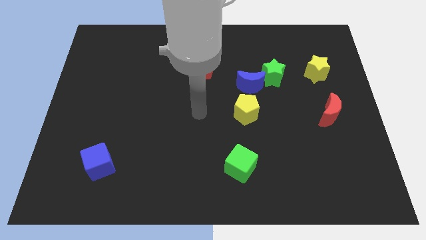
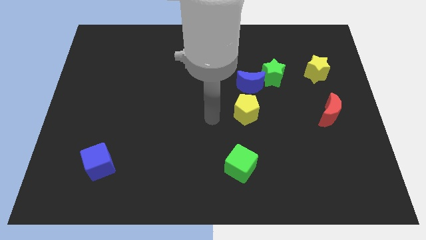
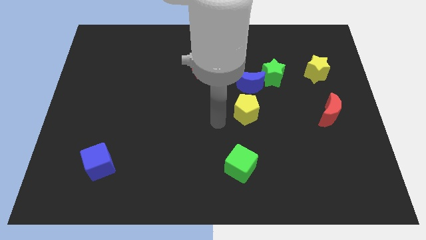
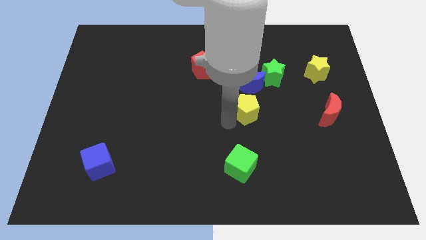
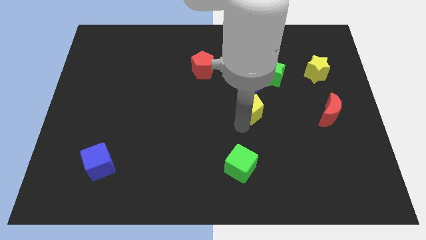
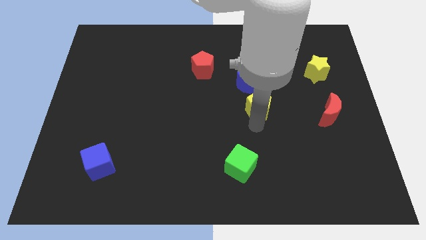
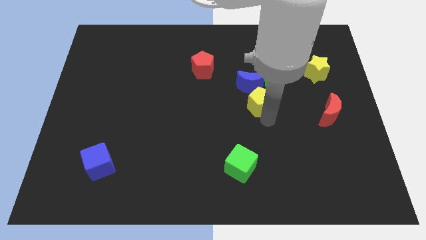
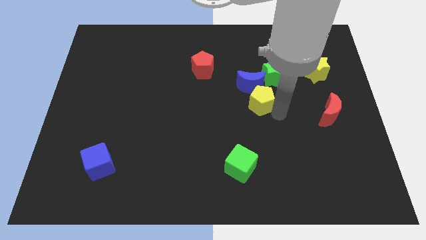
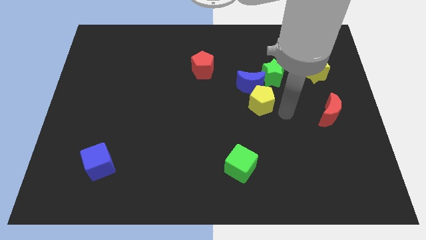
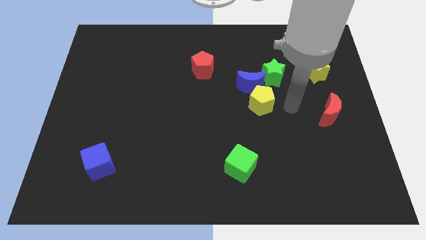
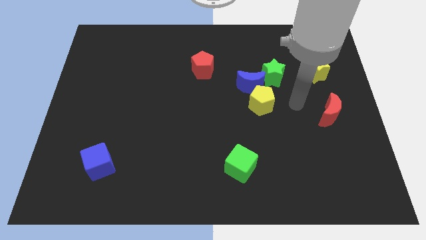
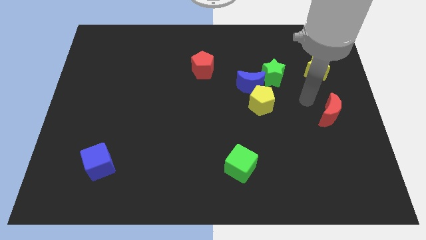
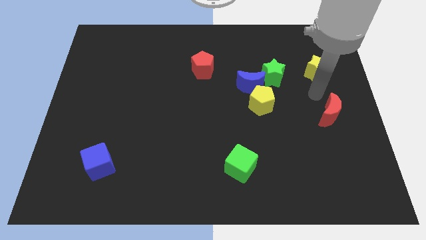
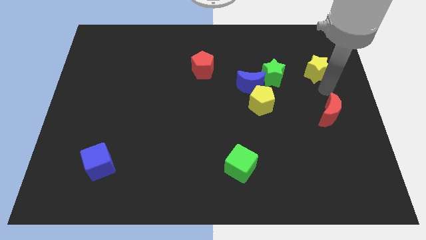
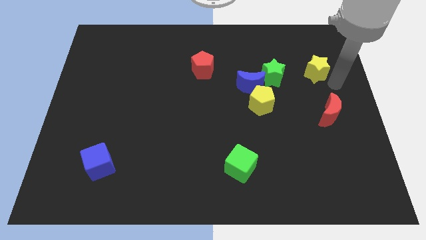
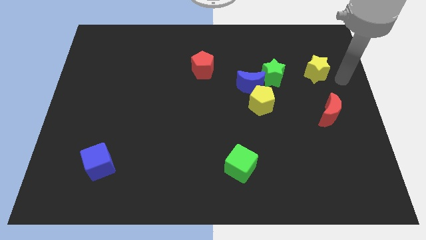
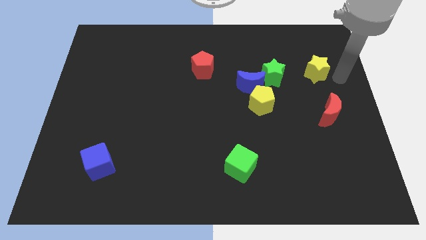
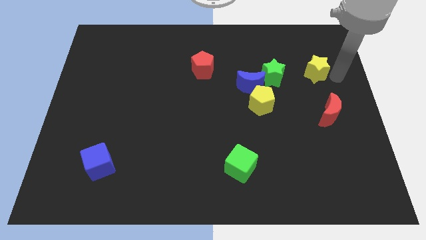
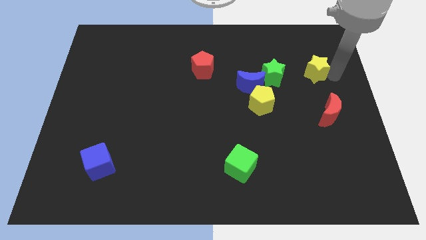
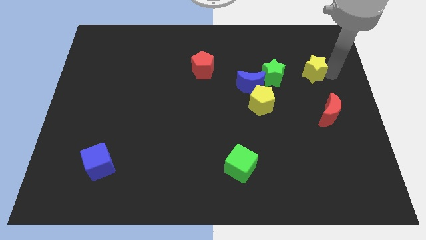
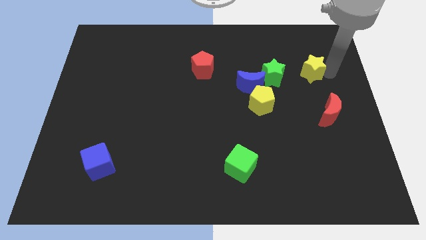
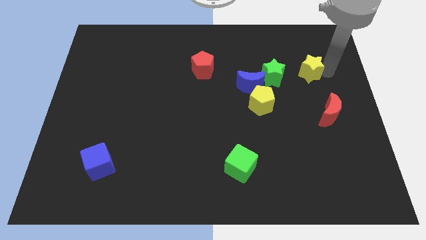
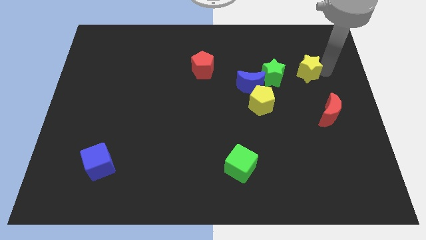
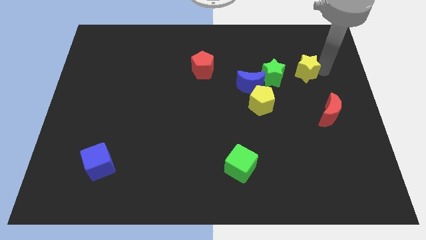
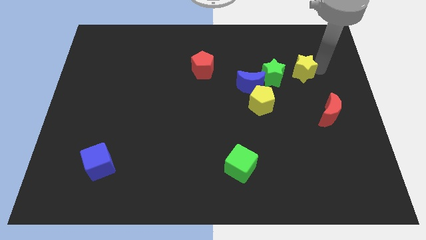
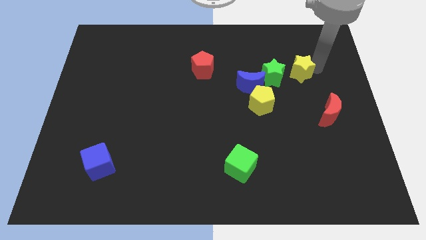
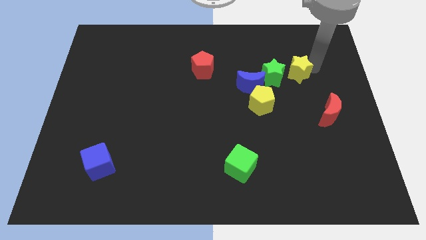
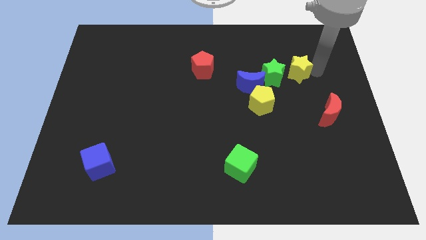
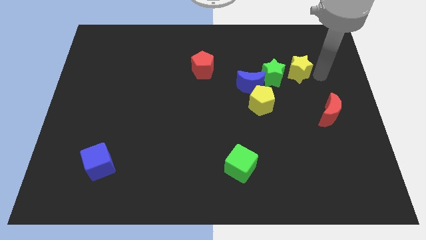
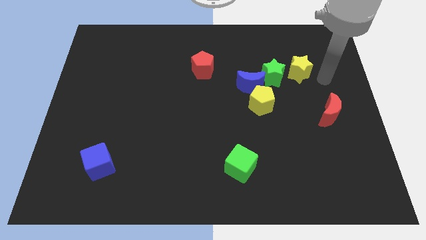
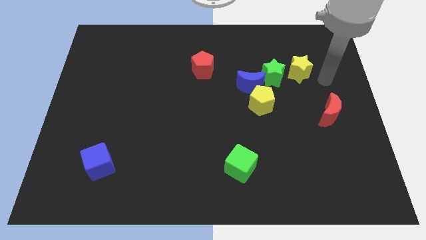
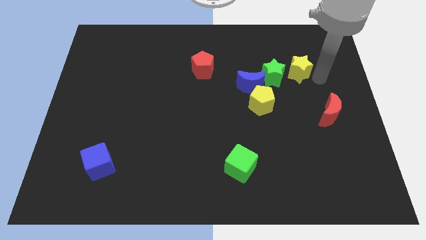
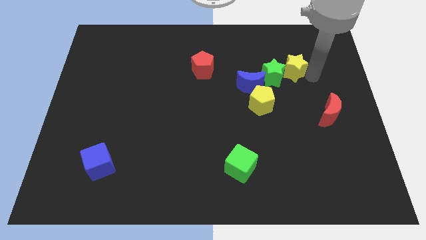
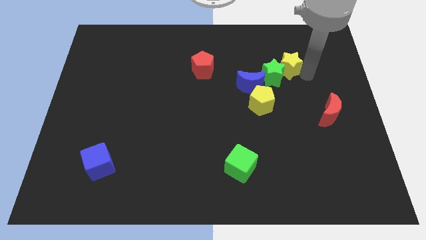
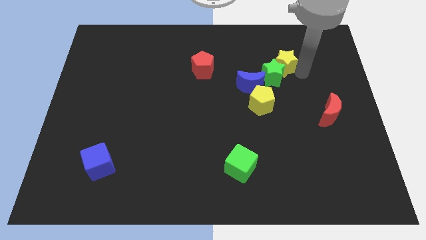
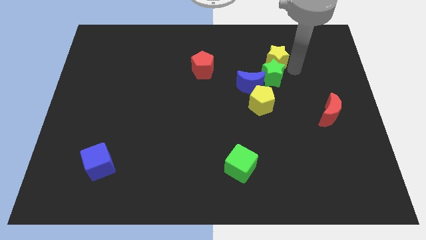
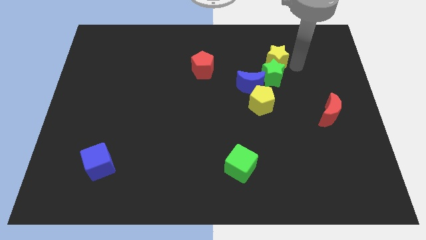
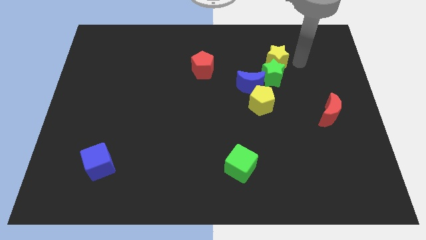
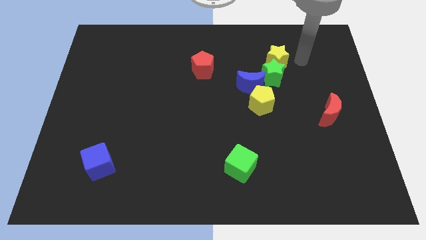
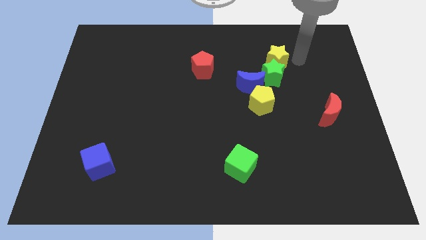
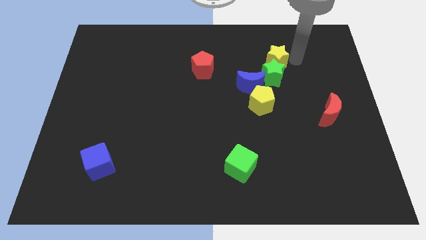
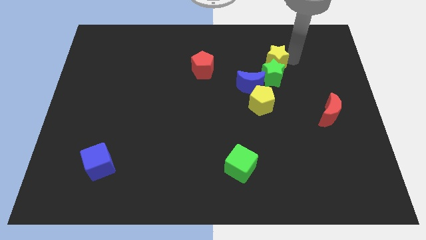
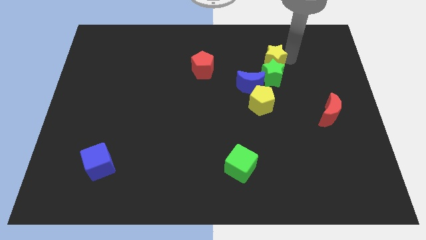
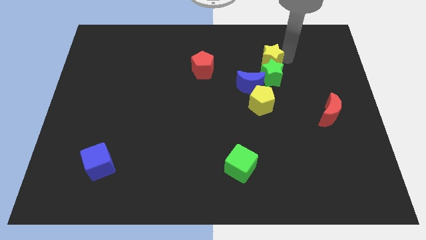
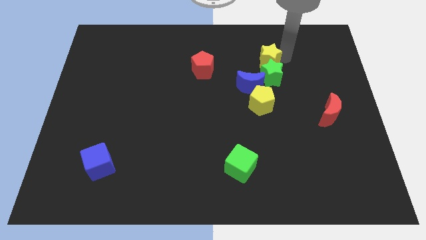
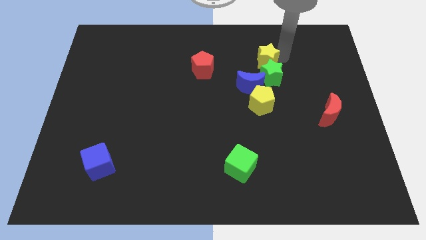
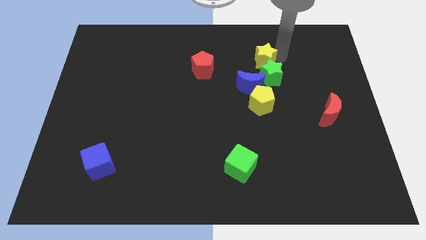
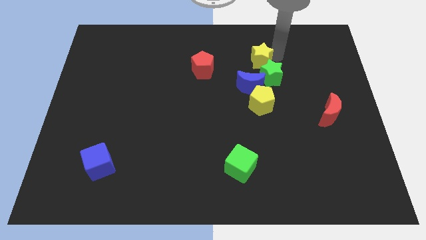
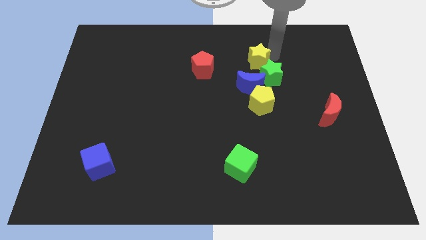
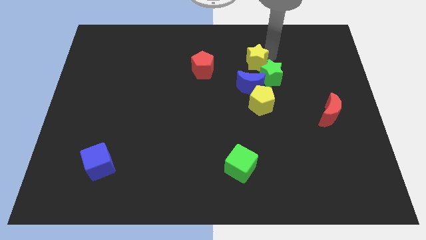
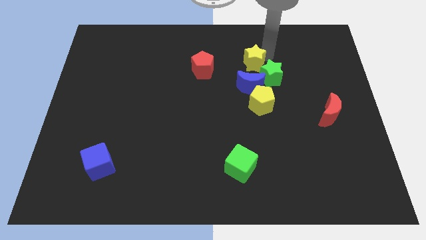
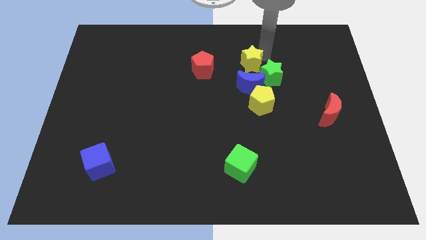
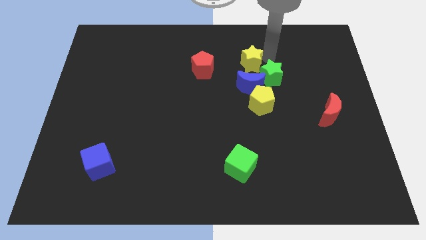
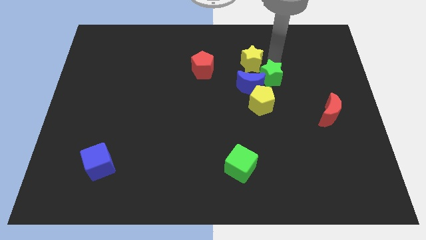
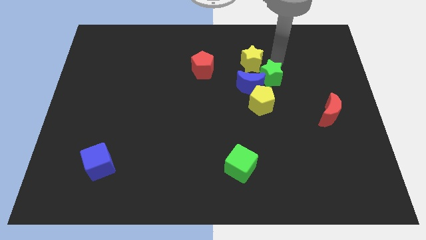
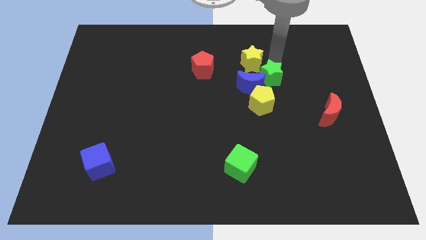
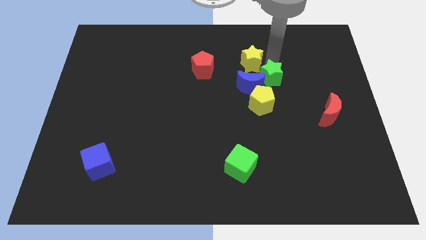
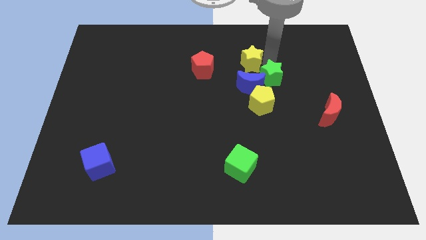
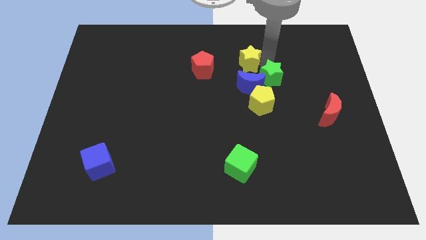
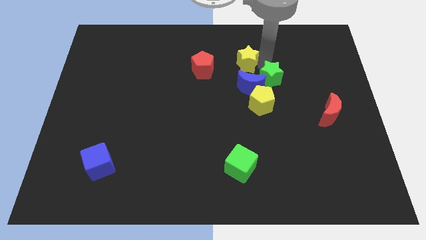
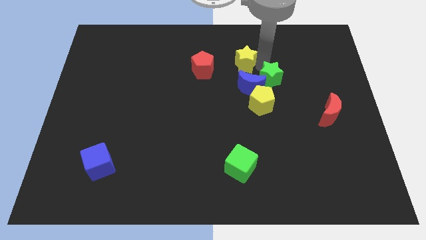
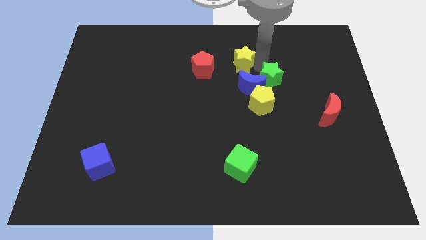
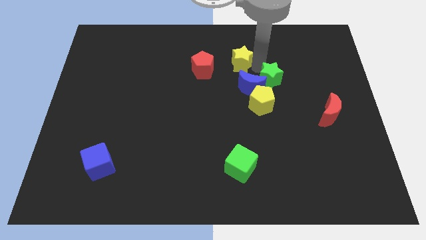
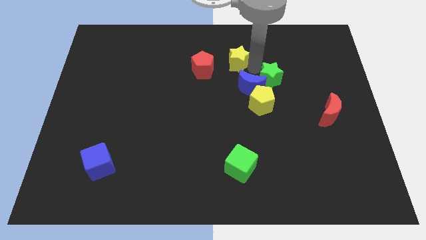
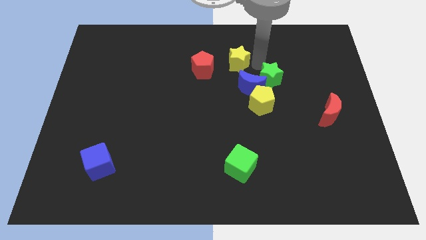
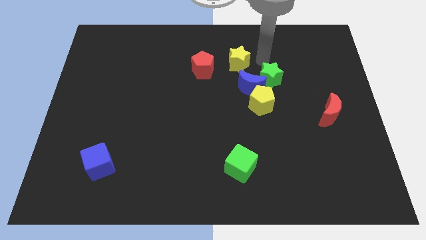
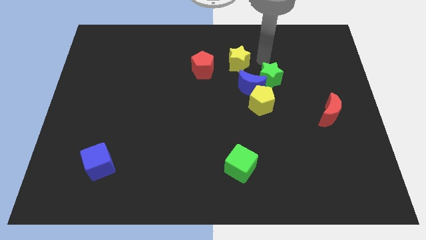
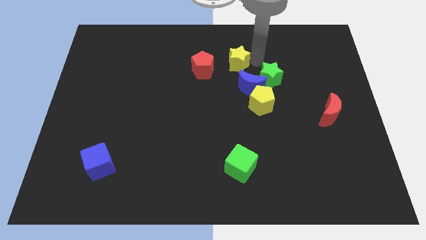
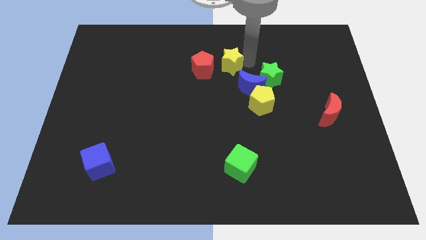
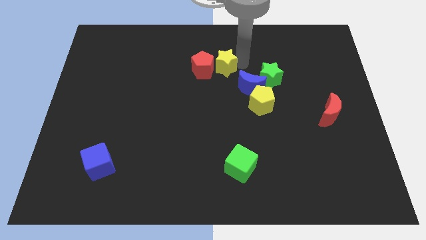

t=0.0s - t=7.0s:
put the yellow star close to the red pentagon

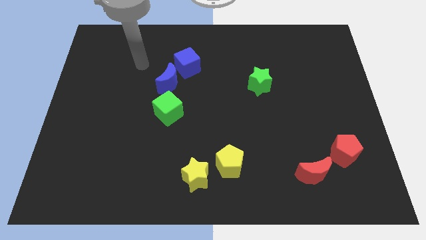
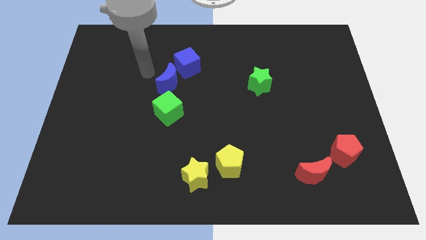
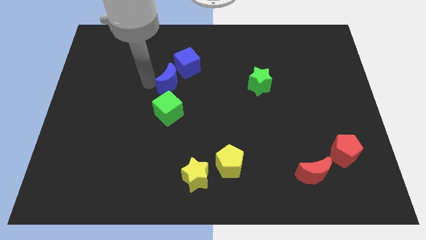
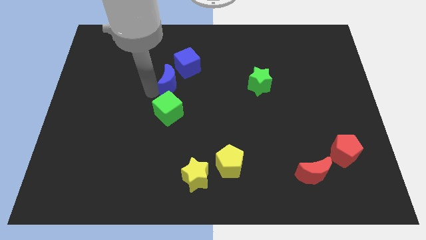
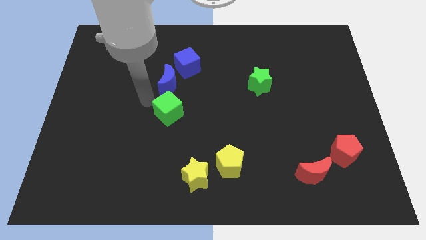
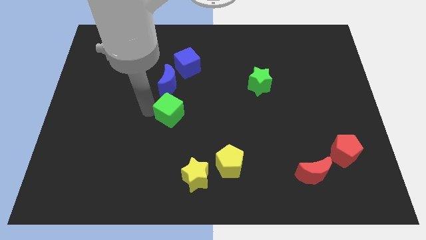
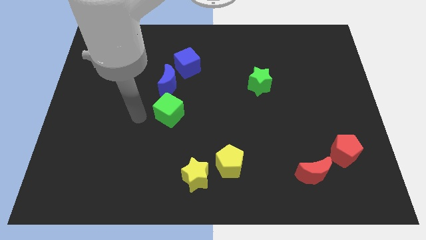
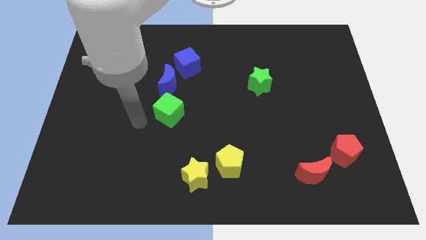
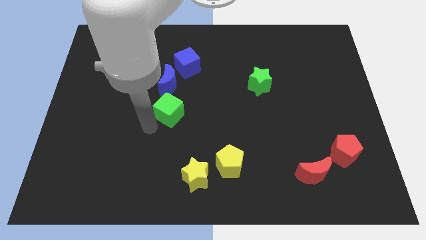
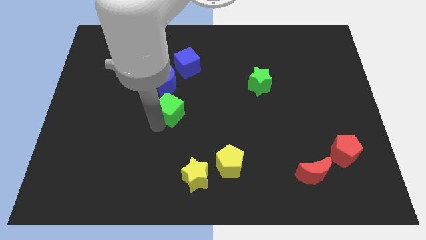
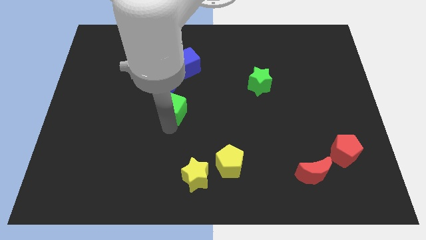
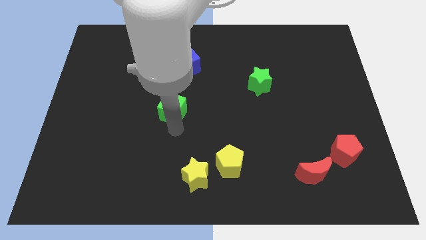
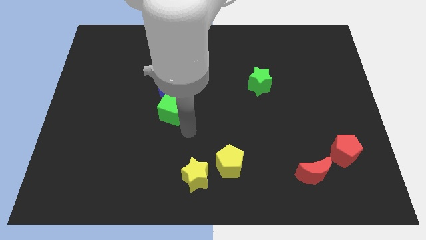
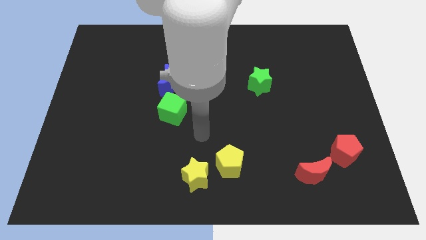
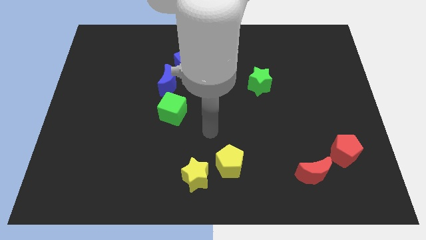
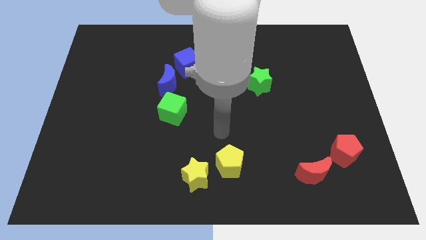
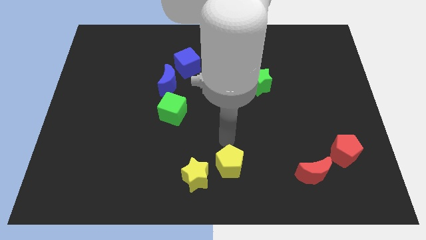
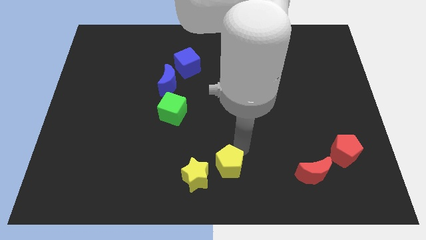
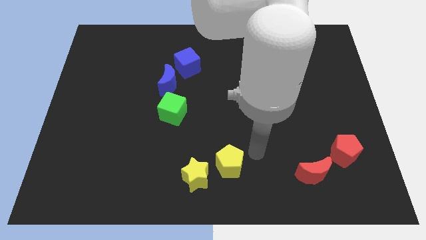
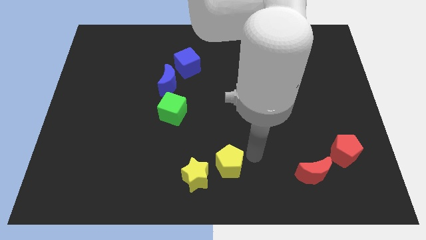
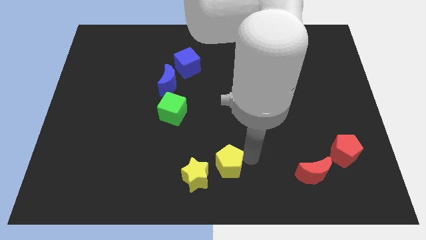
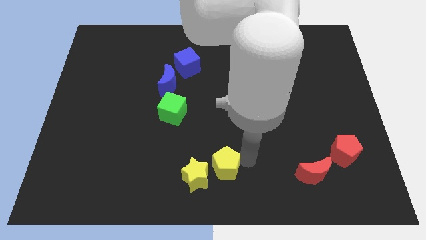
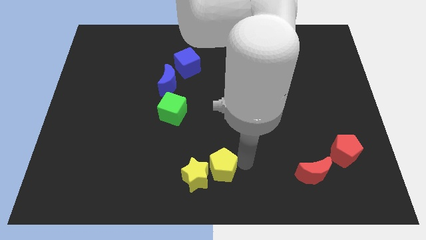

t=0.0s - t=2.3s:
push the yellow pentagon towards the yellow star
